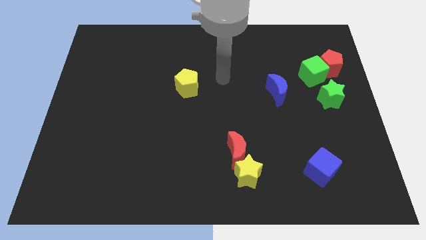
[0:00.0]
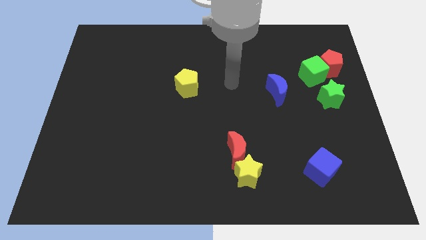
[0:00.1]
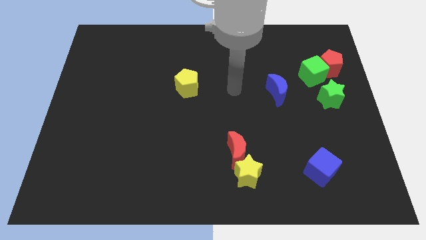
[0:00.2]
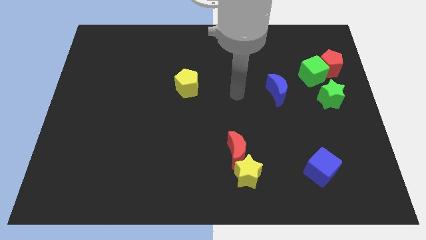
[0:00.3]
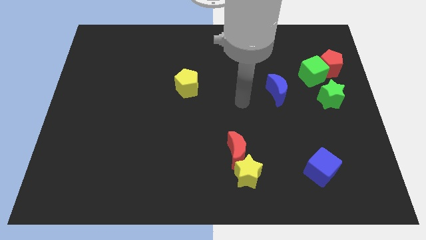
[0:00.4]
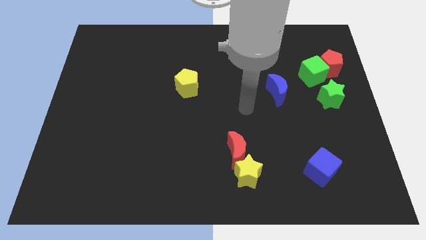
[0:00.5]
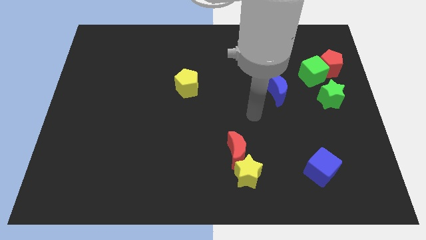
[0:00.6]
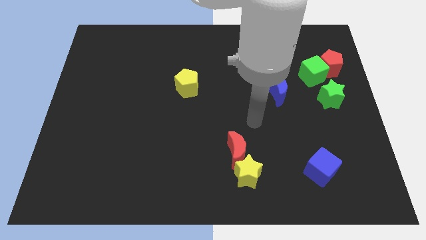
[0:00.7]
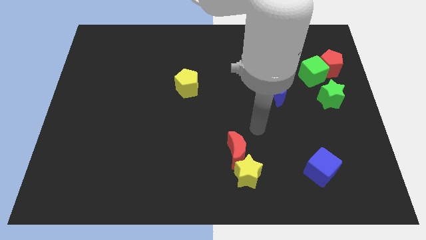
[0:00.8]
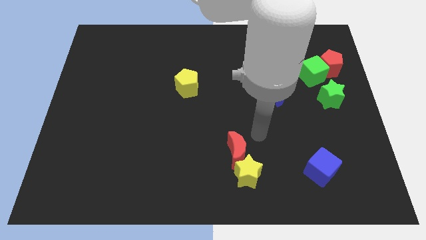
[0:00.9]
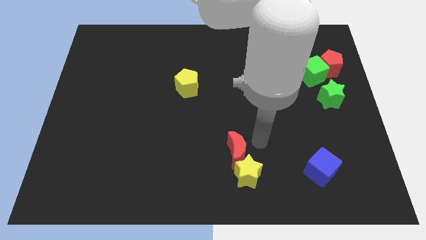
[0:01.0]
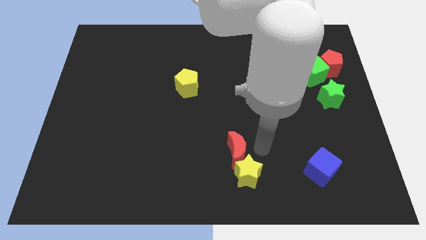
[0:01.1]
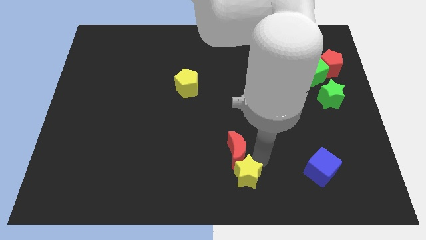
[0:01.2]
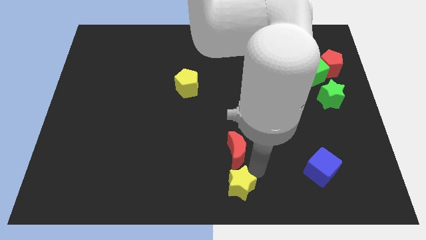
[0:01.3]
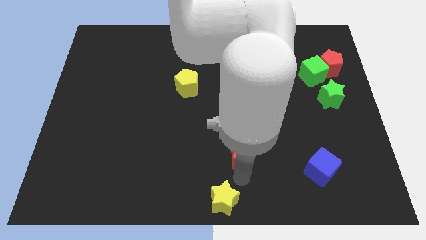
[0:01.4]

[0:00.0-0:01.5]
pull the red moon apart from the yellow star

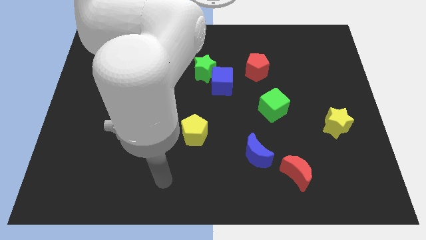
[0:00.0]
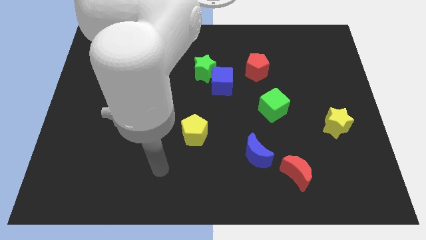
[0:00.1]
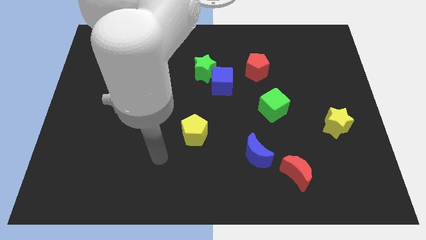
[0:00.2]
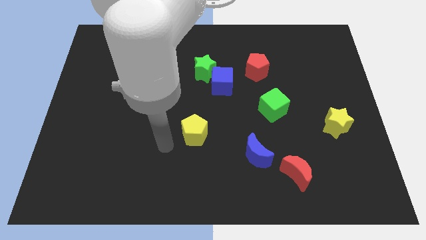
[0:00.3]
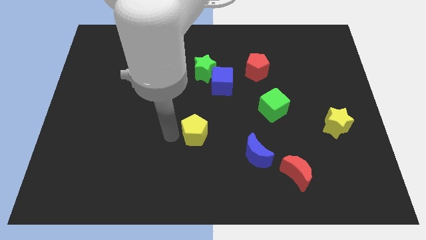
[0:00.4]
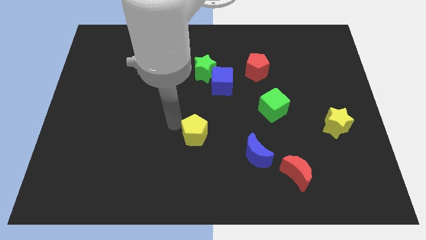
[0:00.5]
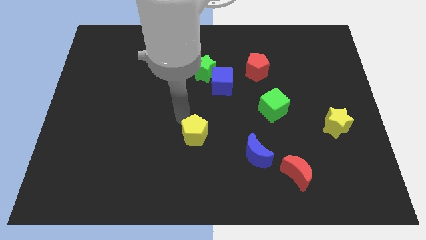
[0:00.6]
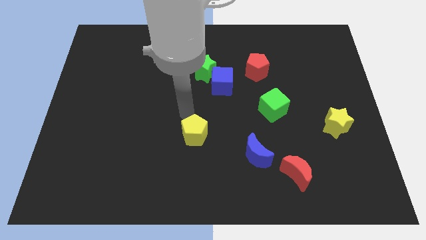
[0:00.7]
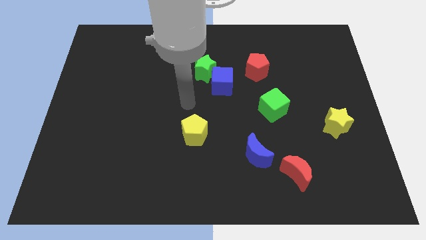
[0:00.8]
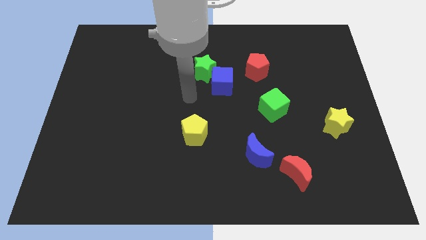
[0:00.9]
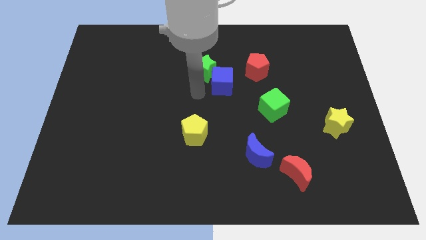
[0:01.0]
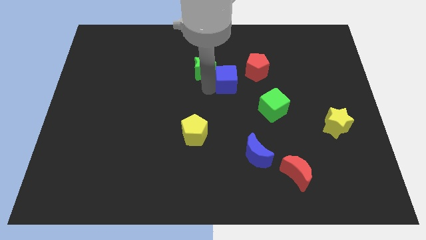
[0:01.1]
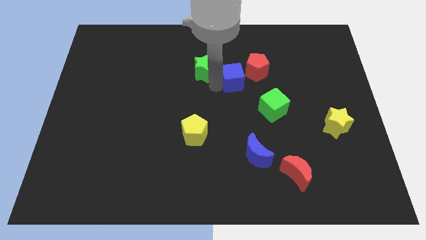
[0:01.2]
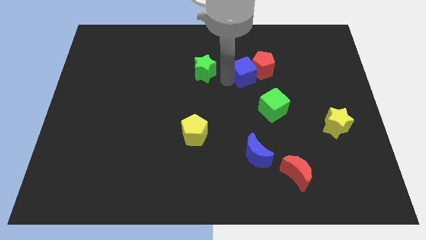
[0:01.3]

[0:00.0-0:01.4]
pull the green star apart from the blue cube

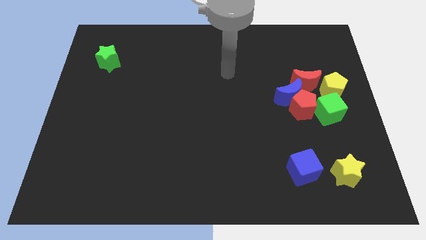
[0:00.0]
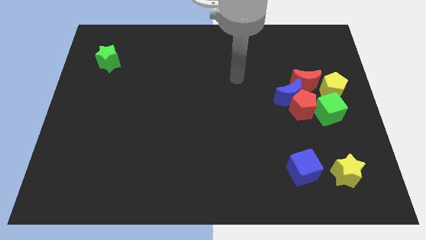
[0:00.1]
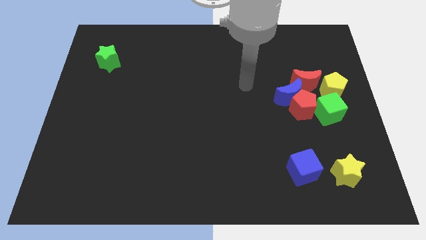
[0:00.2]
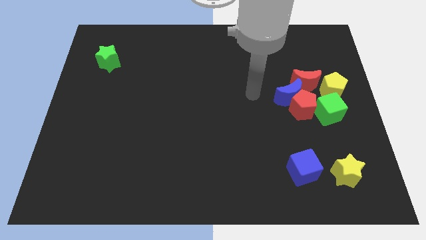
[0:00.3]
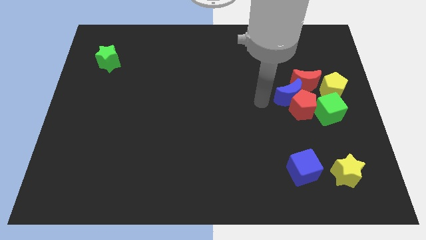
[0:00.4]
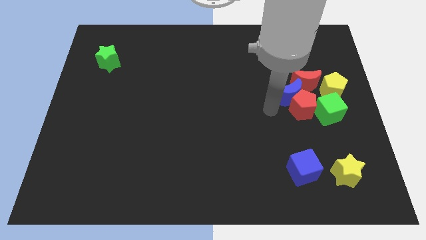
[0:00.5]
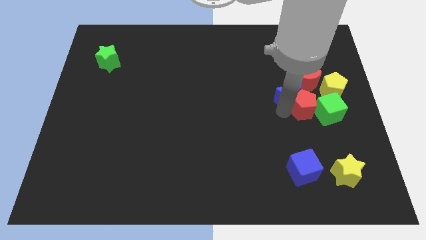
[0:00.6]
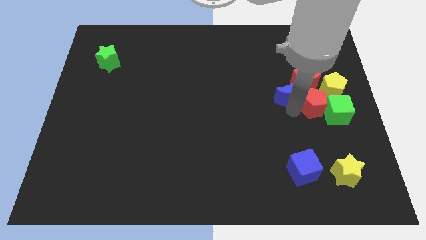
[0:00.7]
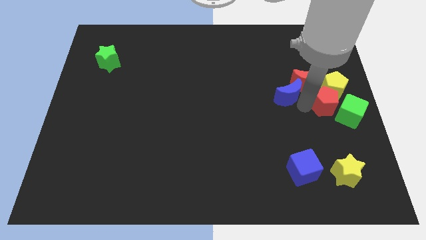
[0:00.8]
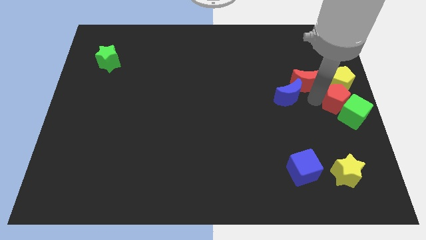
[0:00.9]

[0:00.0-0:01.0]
pull the blue moon apart from the group of blocks

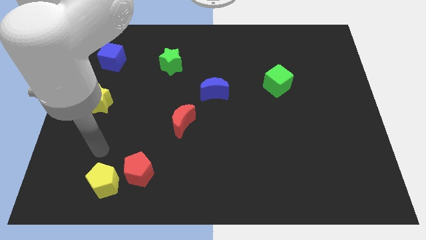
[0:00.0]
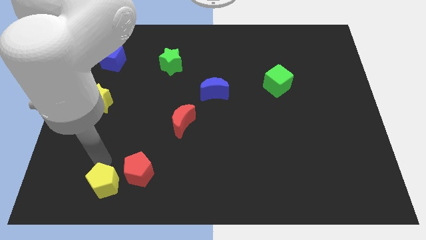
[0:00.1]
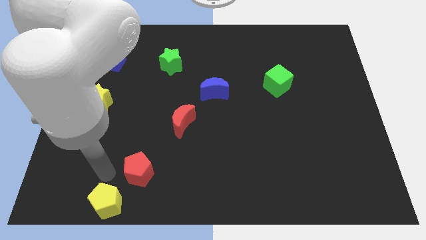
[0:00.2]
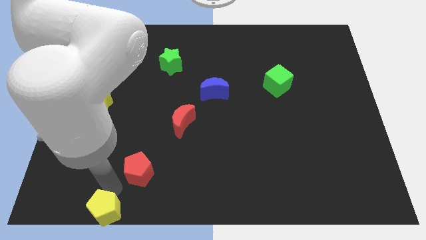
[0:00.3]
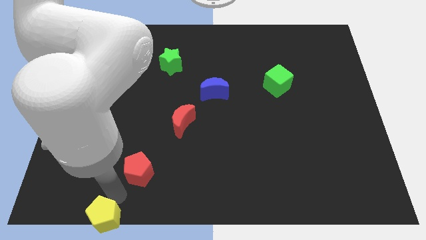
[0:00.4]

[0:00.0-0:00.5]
separate the red pentagon from the yellow pentagon

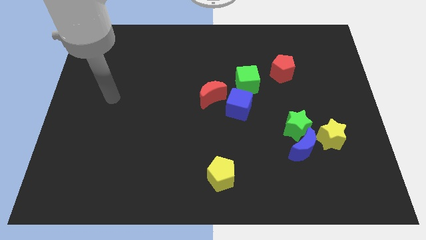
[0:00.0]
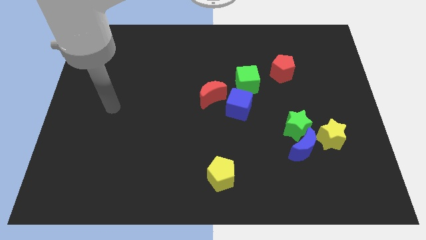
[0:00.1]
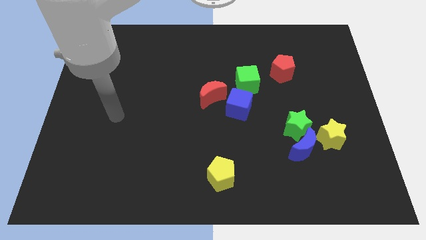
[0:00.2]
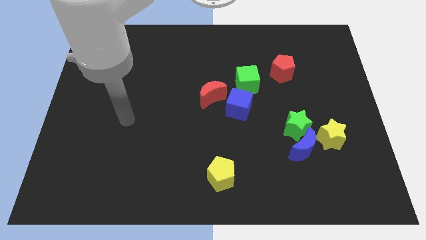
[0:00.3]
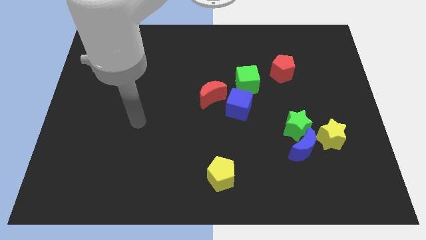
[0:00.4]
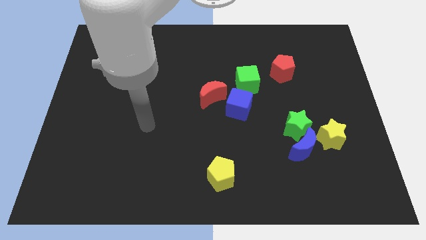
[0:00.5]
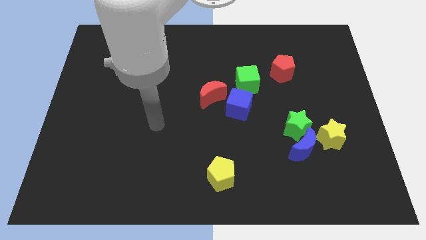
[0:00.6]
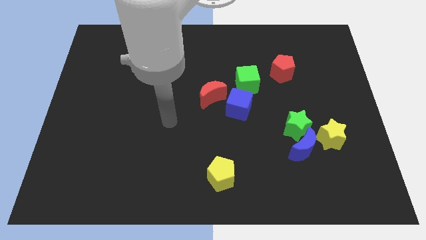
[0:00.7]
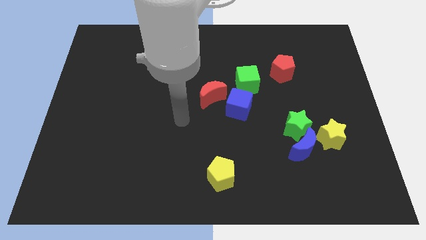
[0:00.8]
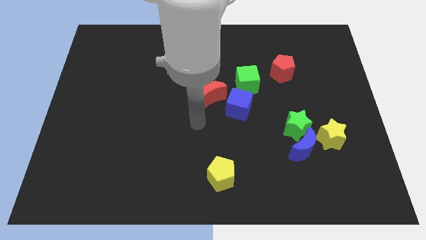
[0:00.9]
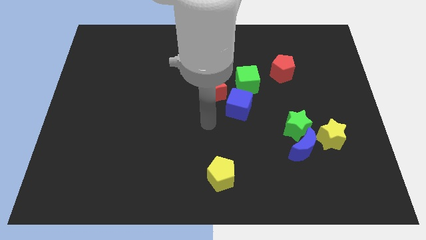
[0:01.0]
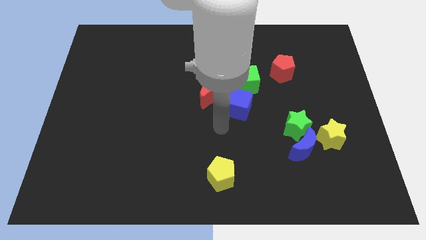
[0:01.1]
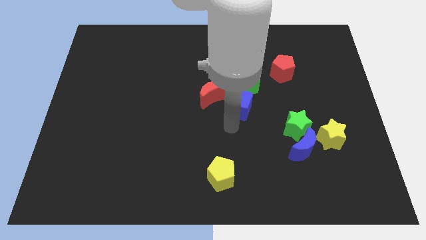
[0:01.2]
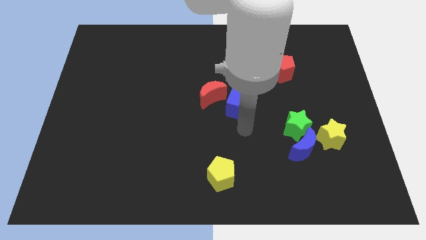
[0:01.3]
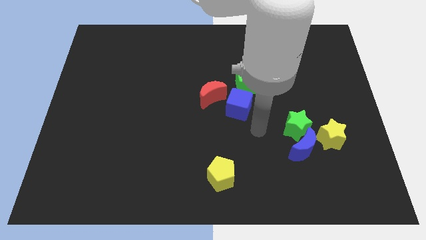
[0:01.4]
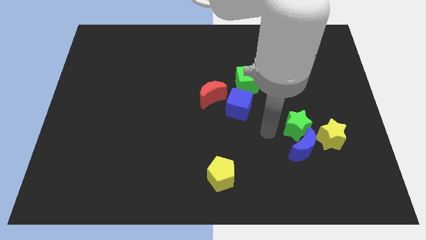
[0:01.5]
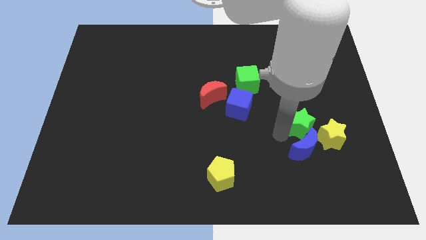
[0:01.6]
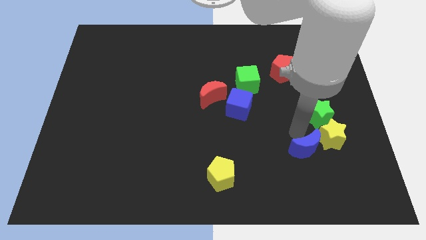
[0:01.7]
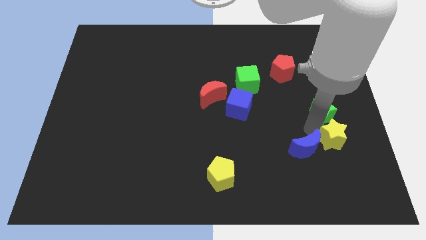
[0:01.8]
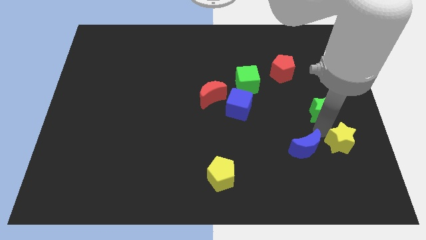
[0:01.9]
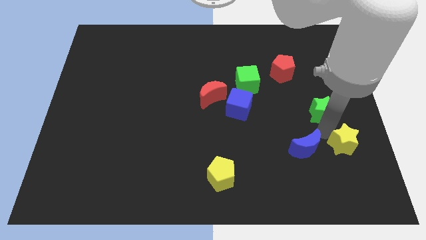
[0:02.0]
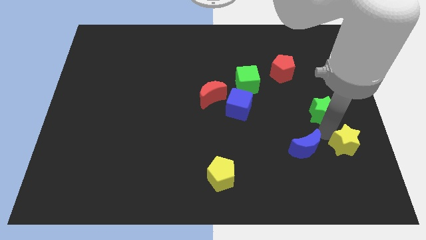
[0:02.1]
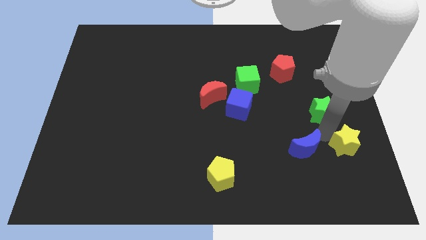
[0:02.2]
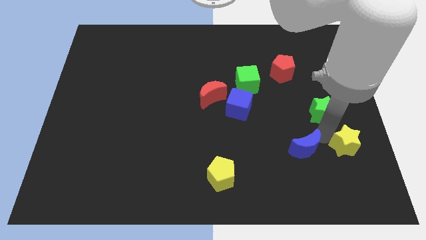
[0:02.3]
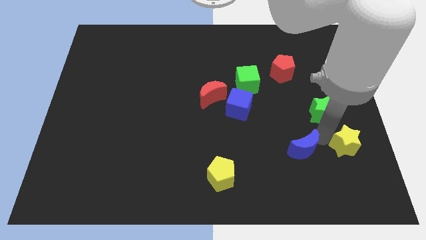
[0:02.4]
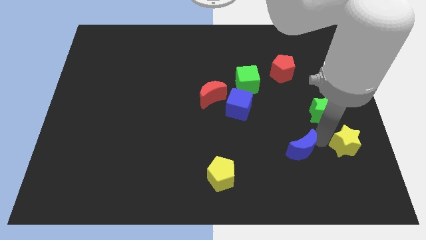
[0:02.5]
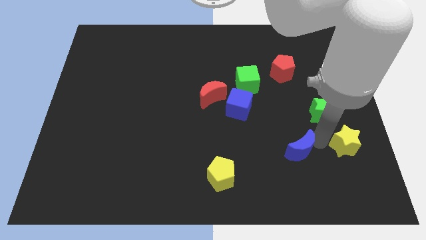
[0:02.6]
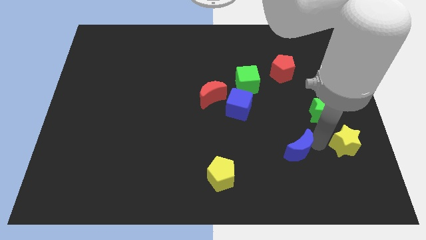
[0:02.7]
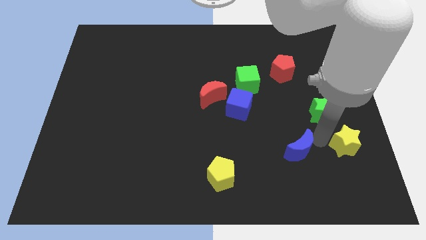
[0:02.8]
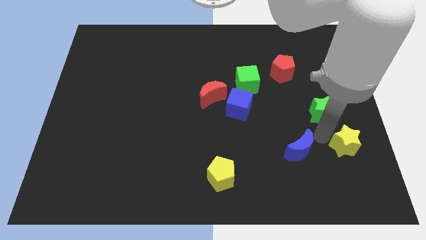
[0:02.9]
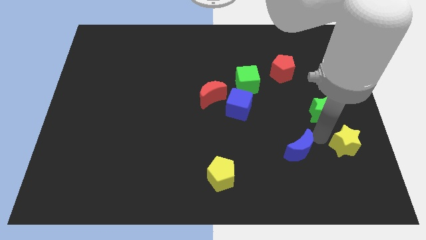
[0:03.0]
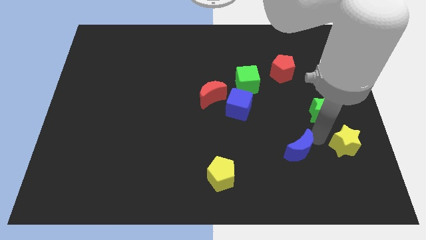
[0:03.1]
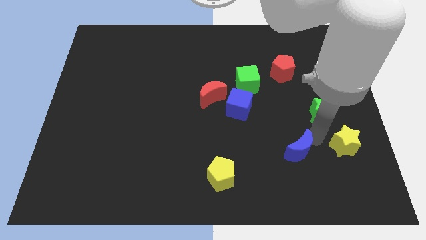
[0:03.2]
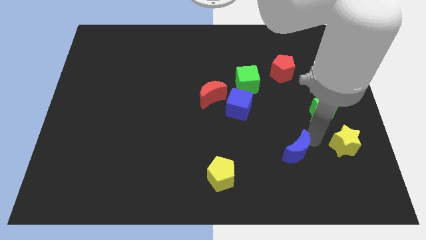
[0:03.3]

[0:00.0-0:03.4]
pull the blue moon apart from the green star and yellow star

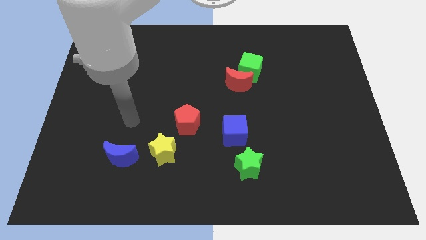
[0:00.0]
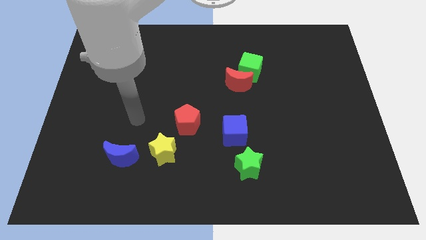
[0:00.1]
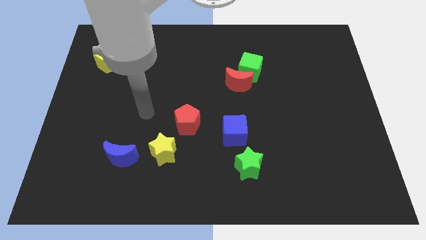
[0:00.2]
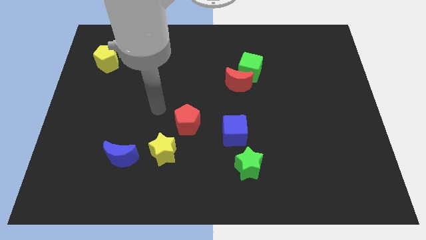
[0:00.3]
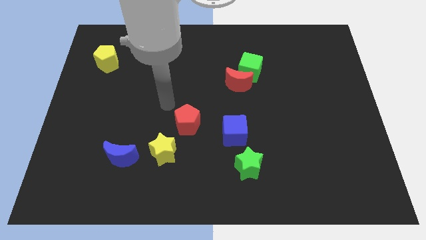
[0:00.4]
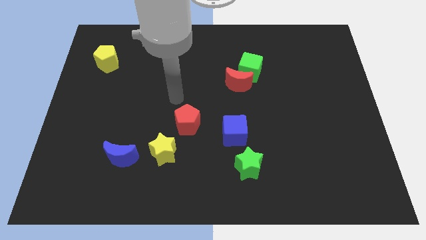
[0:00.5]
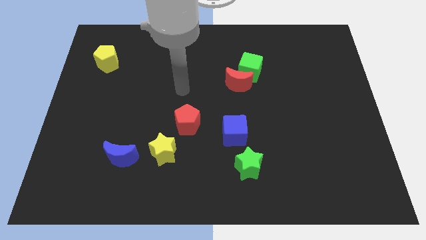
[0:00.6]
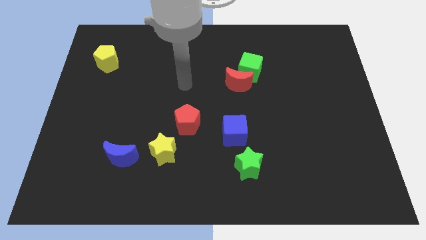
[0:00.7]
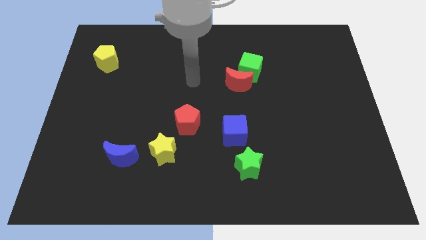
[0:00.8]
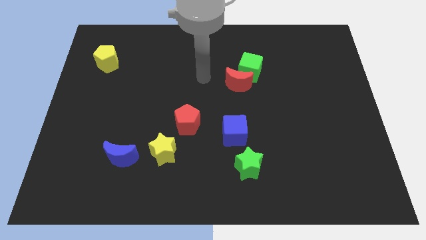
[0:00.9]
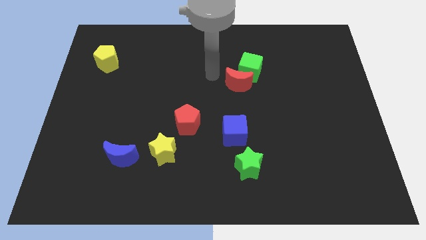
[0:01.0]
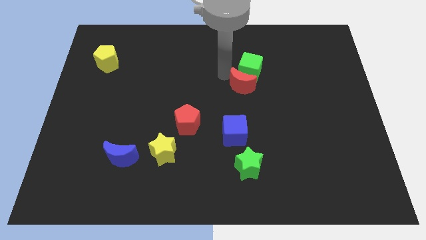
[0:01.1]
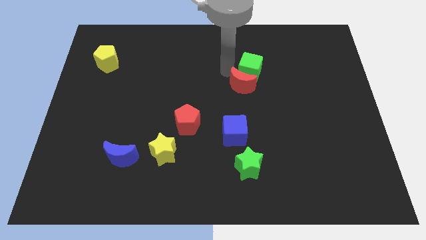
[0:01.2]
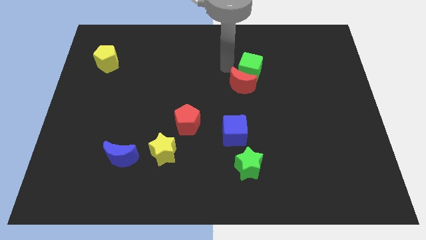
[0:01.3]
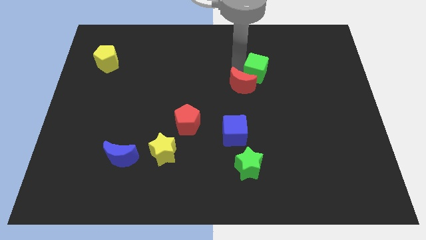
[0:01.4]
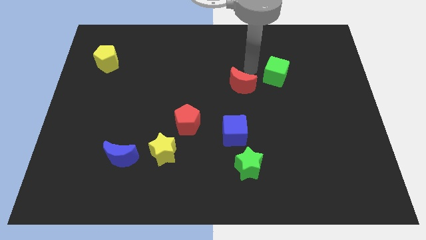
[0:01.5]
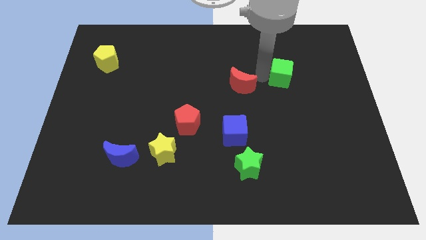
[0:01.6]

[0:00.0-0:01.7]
move the red moon away from the green cube
